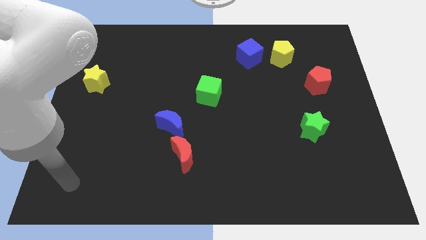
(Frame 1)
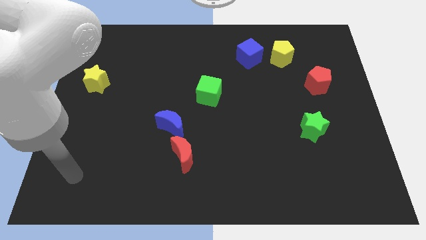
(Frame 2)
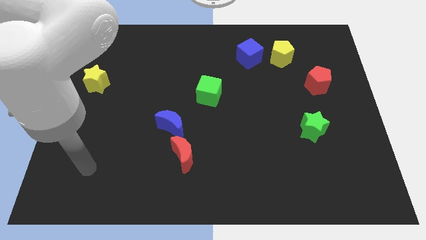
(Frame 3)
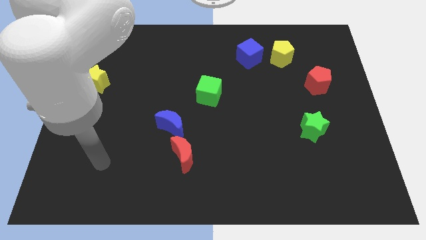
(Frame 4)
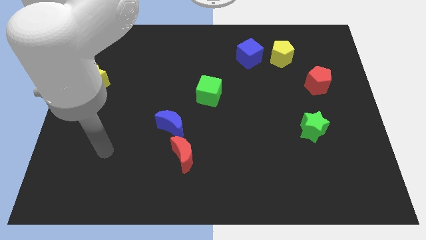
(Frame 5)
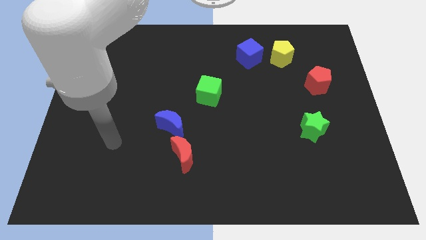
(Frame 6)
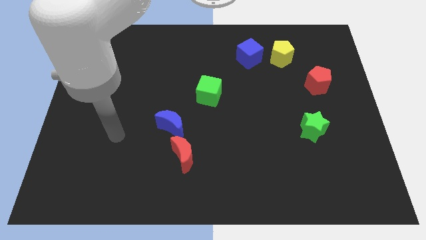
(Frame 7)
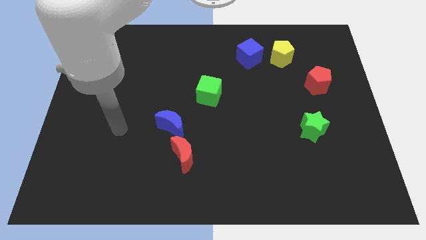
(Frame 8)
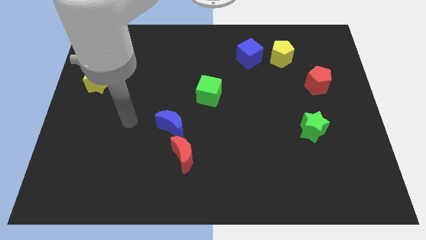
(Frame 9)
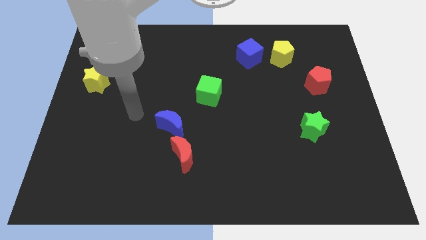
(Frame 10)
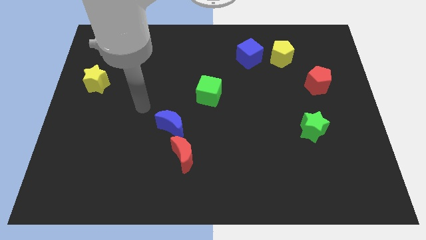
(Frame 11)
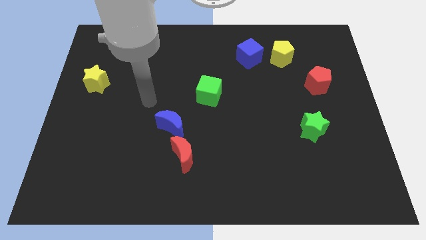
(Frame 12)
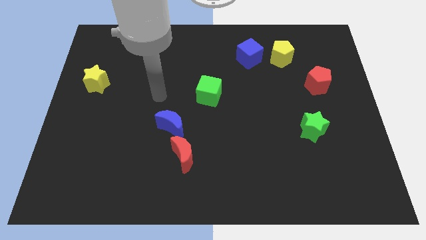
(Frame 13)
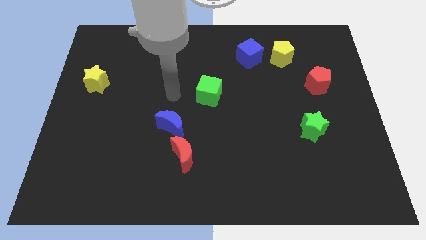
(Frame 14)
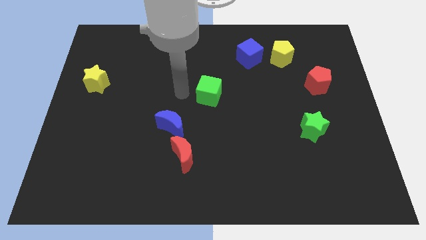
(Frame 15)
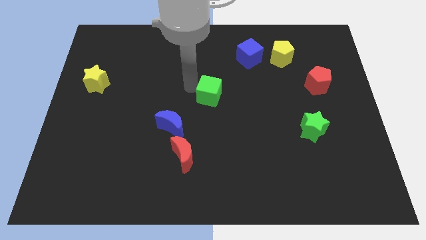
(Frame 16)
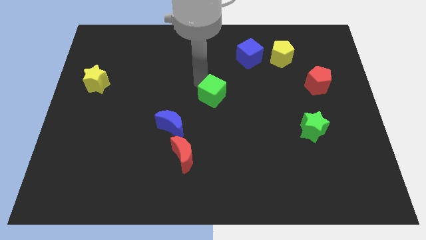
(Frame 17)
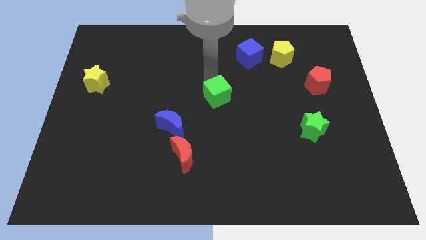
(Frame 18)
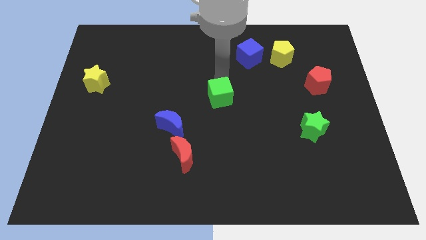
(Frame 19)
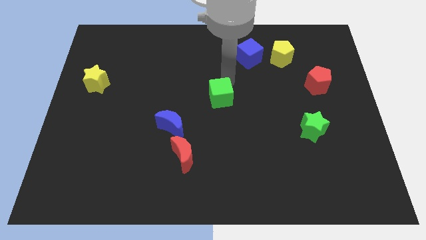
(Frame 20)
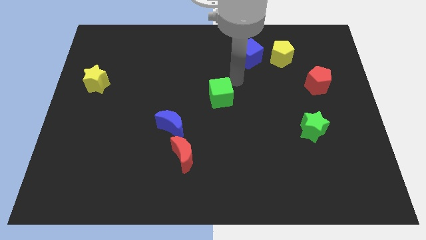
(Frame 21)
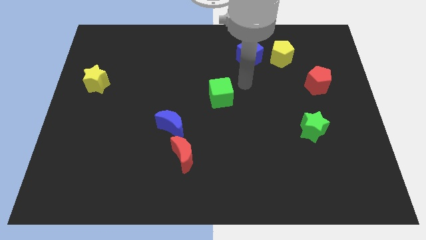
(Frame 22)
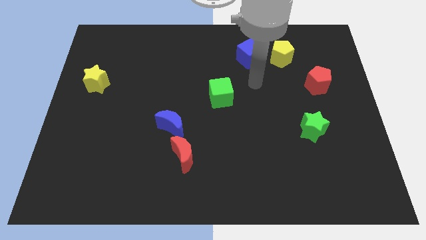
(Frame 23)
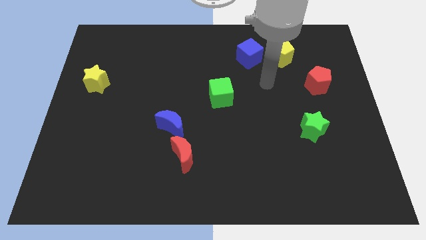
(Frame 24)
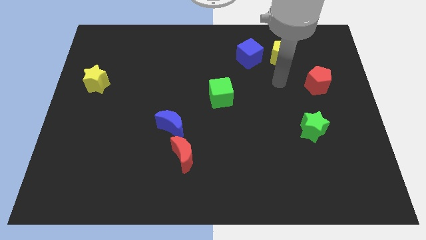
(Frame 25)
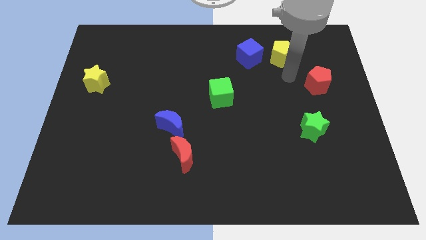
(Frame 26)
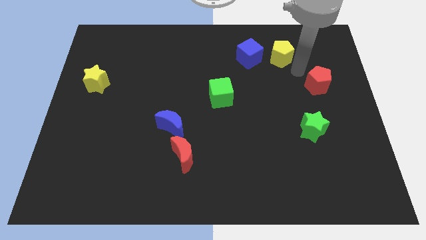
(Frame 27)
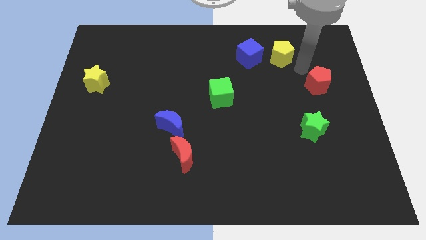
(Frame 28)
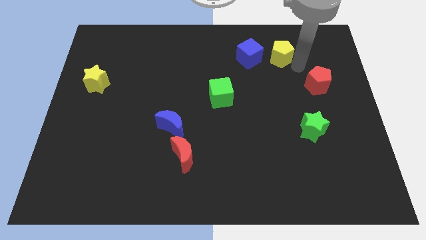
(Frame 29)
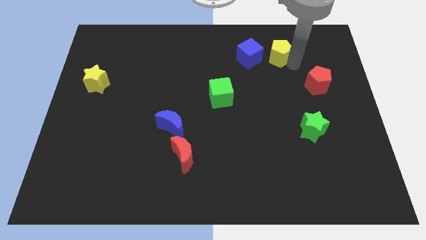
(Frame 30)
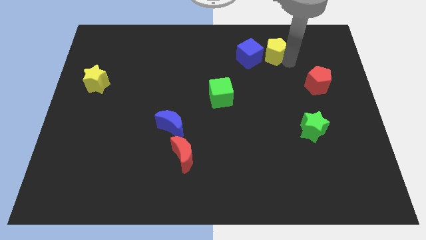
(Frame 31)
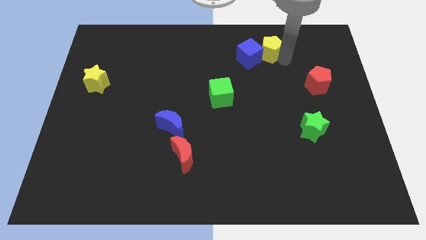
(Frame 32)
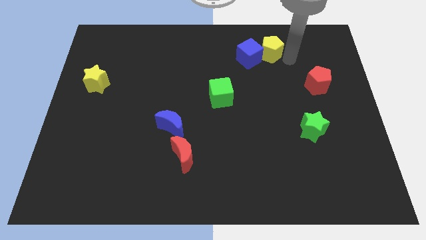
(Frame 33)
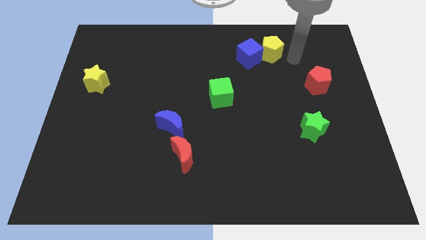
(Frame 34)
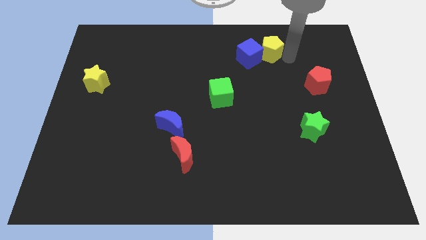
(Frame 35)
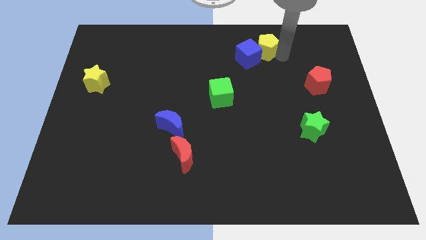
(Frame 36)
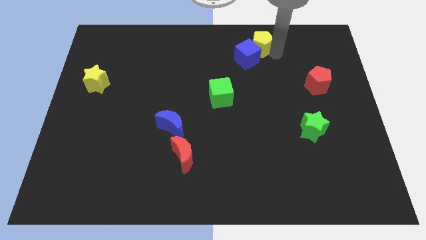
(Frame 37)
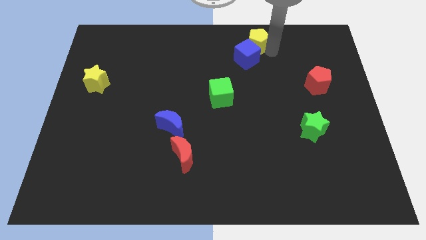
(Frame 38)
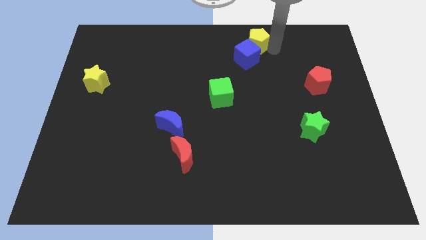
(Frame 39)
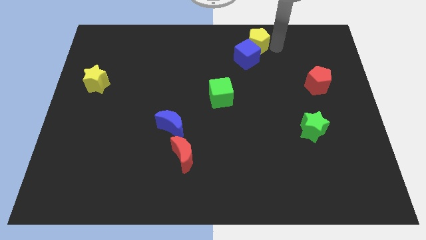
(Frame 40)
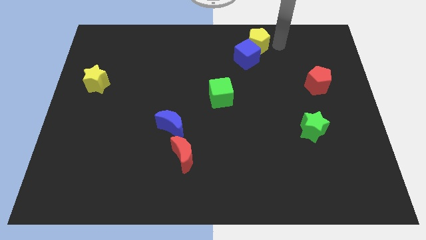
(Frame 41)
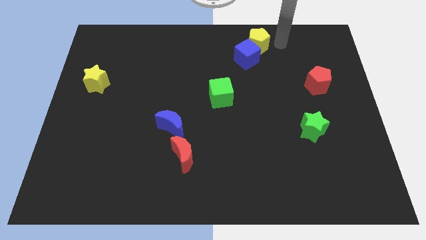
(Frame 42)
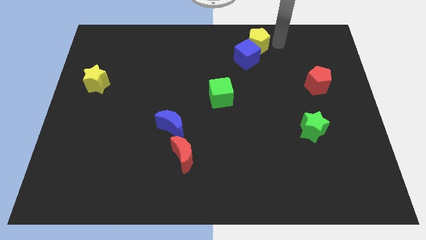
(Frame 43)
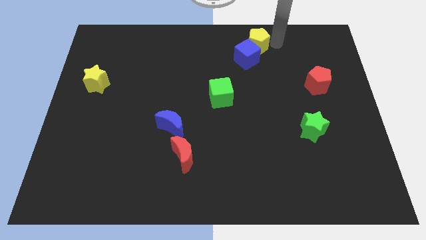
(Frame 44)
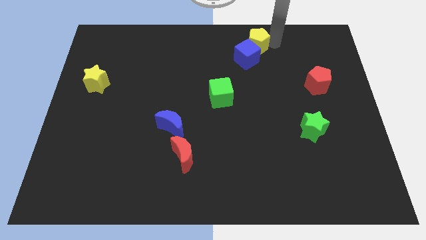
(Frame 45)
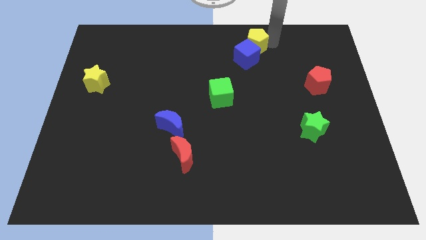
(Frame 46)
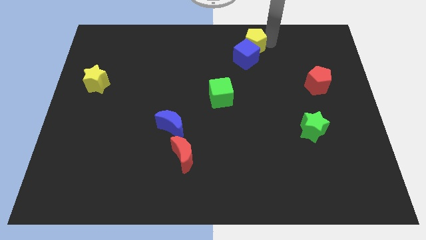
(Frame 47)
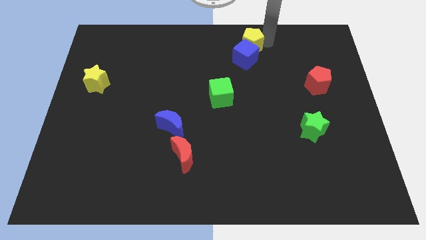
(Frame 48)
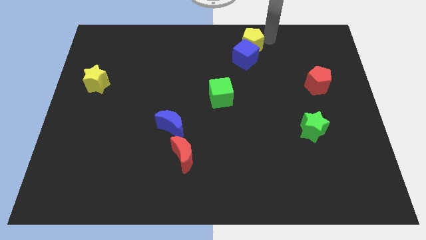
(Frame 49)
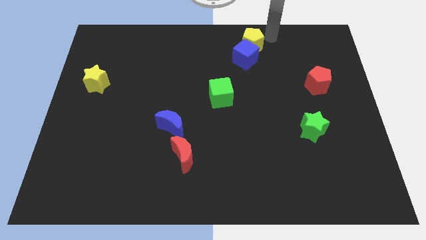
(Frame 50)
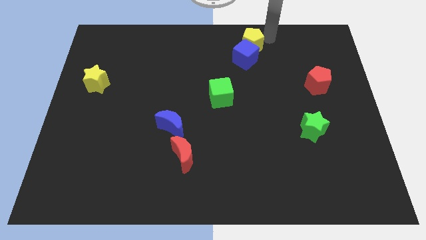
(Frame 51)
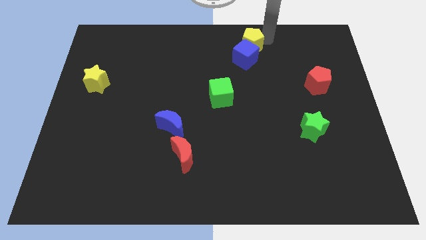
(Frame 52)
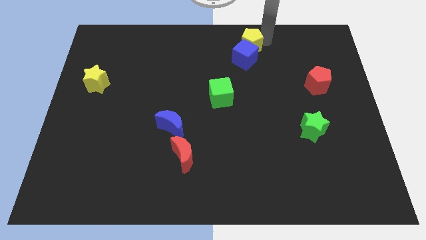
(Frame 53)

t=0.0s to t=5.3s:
move the yellow pentagon left a bit

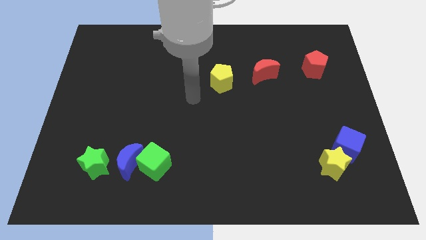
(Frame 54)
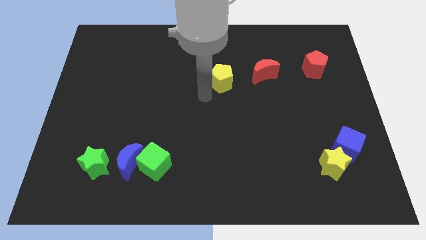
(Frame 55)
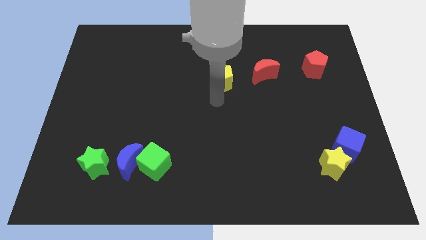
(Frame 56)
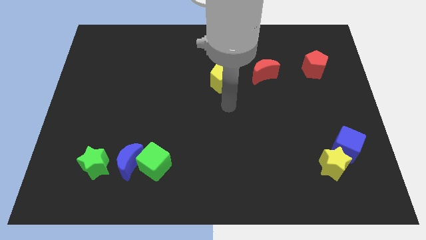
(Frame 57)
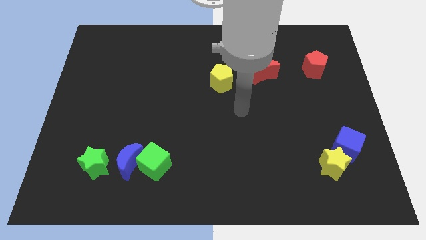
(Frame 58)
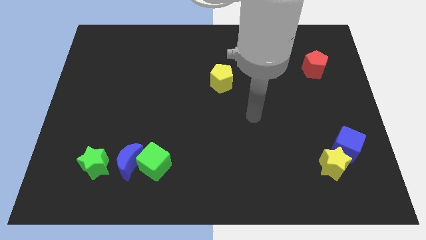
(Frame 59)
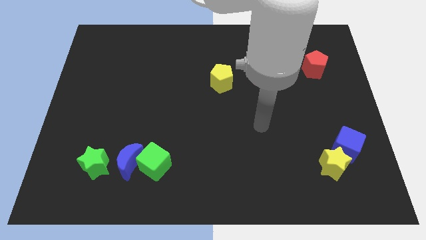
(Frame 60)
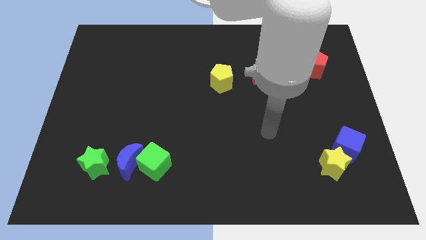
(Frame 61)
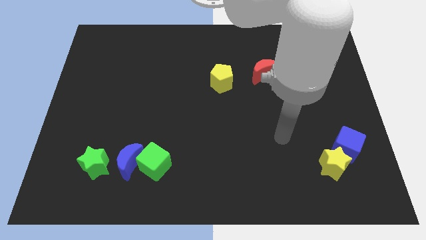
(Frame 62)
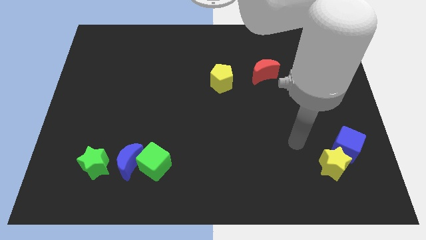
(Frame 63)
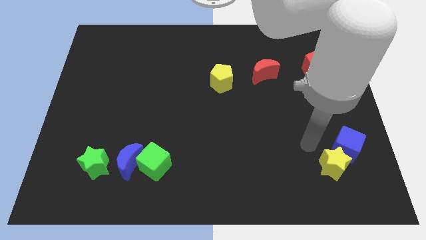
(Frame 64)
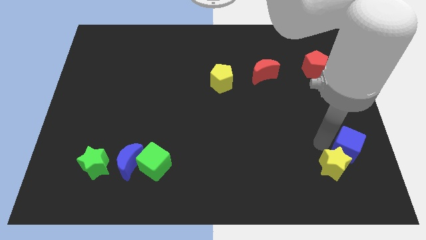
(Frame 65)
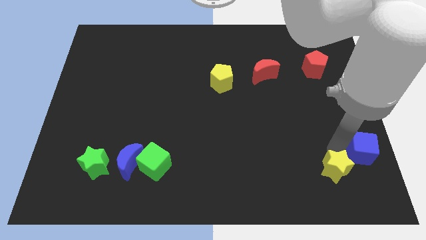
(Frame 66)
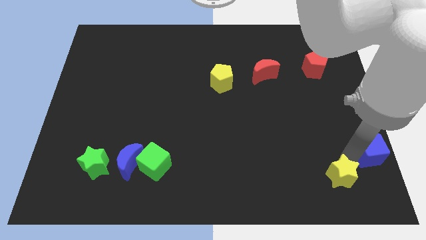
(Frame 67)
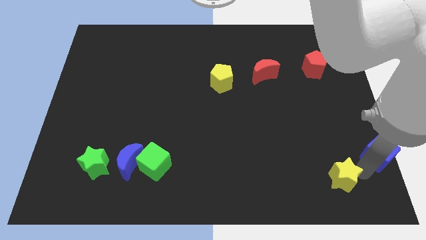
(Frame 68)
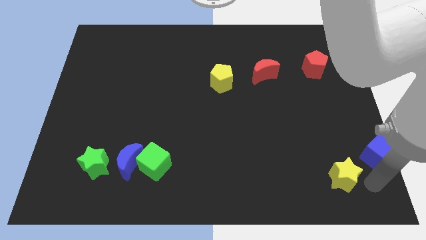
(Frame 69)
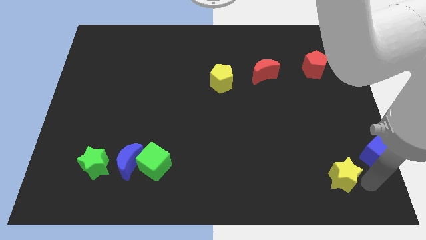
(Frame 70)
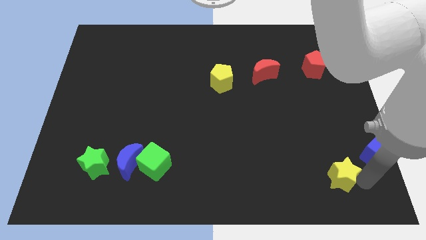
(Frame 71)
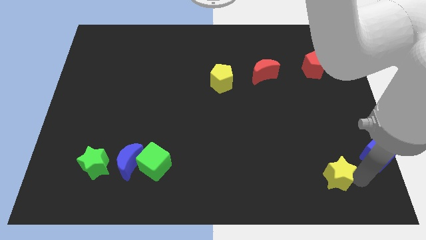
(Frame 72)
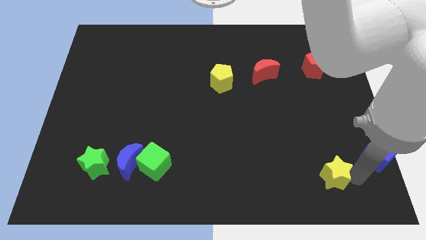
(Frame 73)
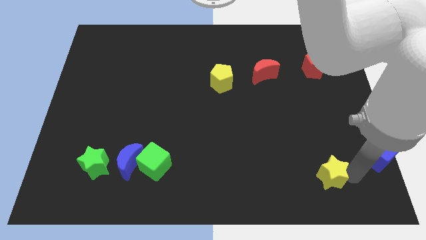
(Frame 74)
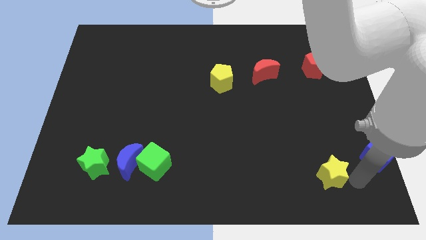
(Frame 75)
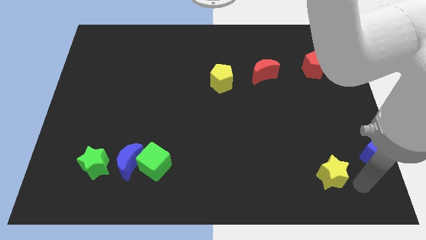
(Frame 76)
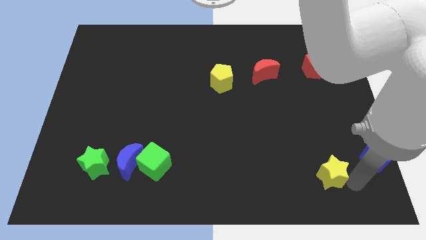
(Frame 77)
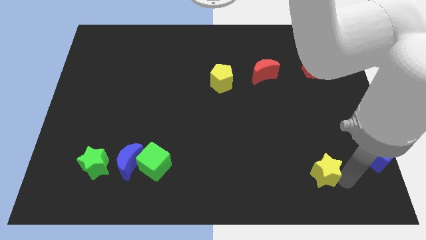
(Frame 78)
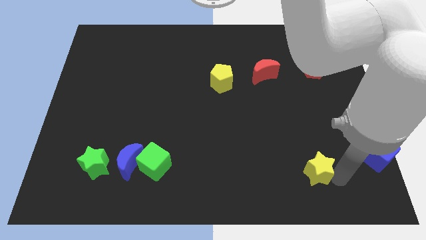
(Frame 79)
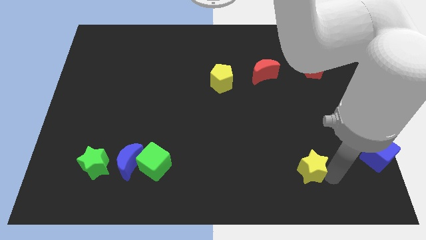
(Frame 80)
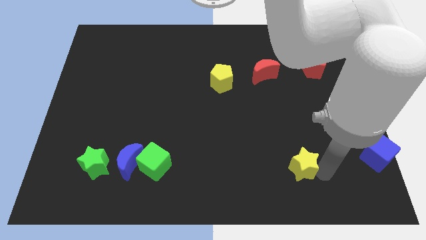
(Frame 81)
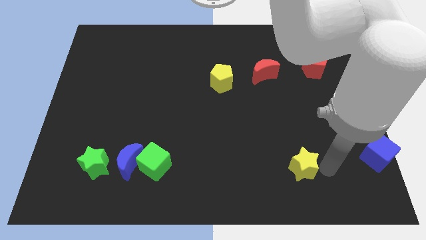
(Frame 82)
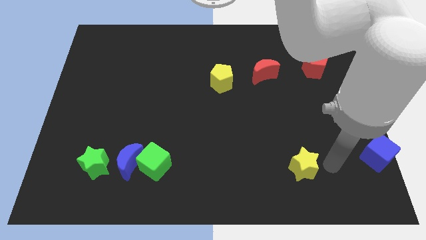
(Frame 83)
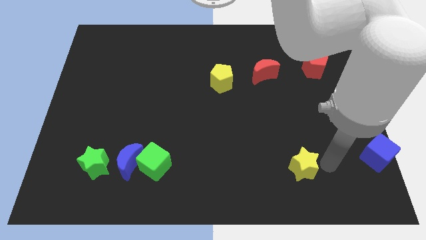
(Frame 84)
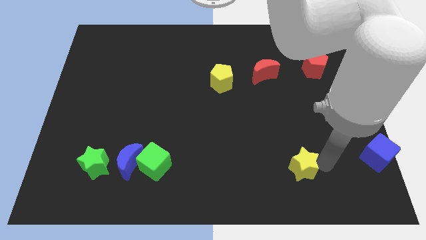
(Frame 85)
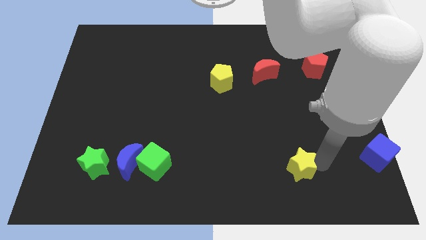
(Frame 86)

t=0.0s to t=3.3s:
move the yellow star left somewhat
